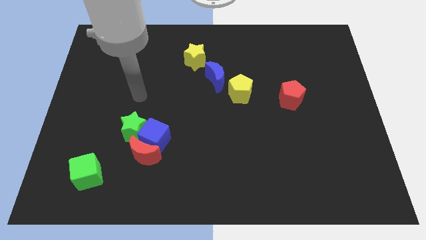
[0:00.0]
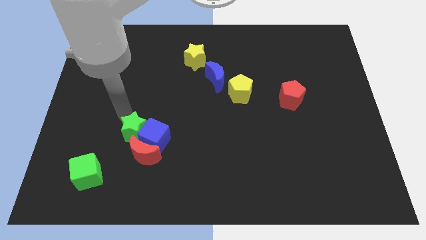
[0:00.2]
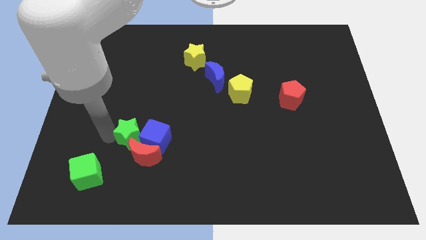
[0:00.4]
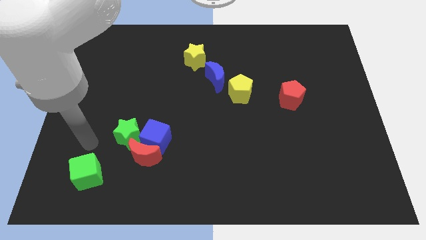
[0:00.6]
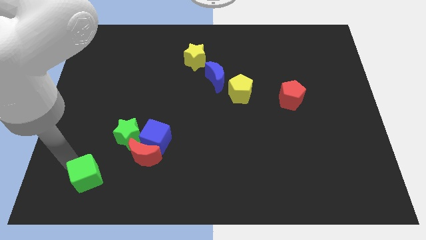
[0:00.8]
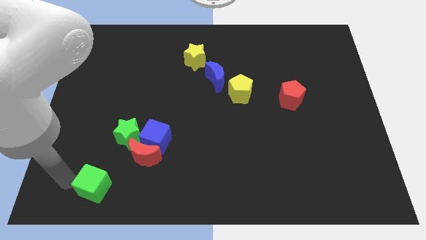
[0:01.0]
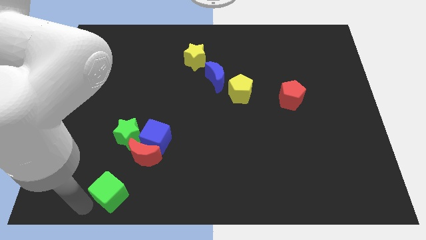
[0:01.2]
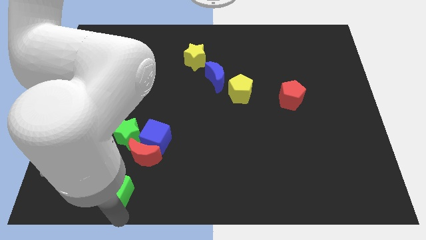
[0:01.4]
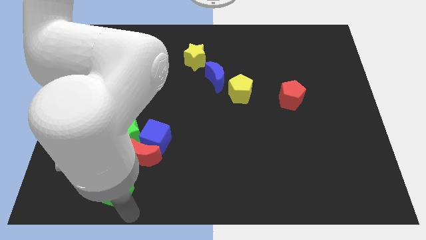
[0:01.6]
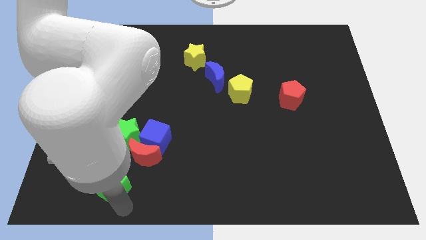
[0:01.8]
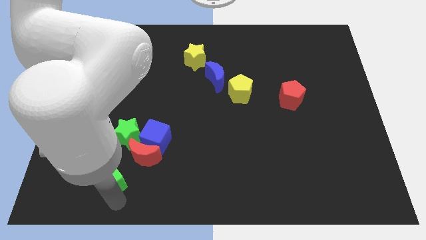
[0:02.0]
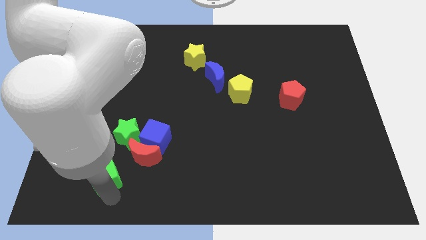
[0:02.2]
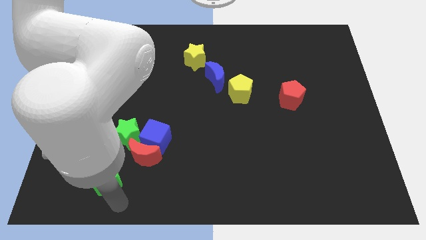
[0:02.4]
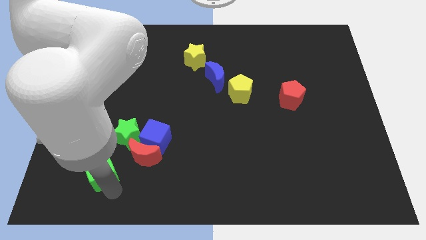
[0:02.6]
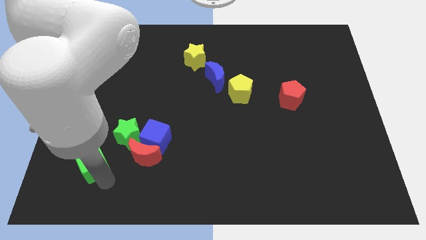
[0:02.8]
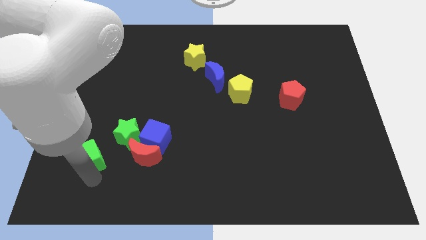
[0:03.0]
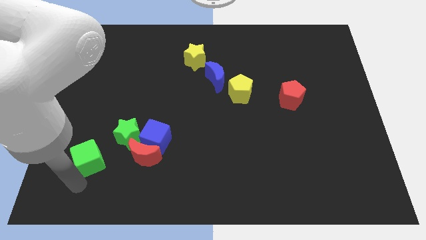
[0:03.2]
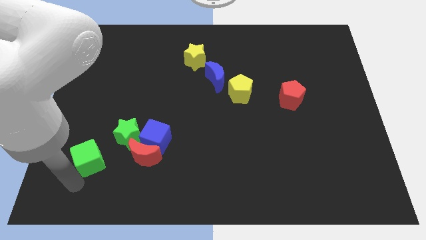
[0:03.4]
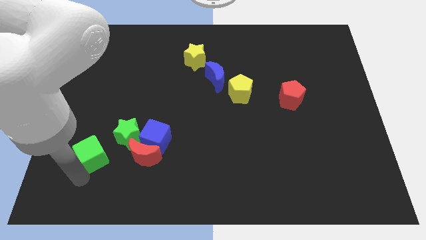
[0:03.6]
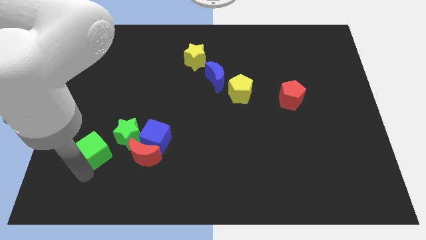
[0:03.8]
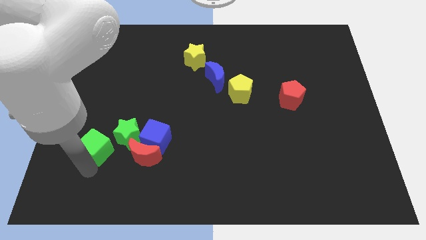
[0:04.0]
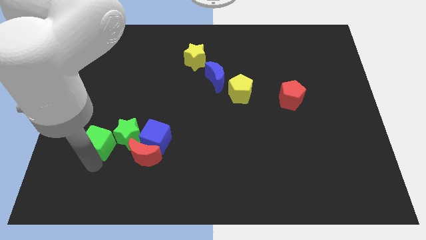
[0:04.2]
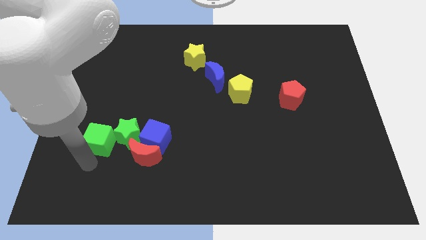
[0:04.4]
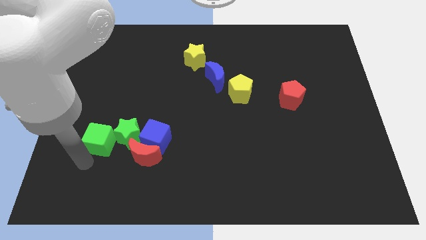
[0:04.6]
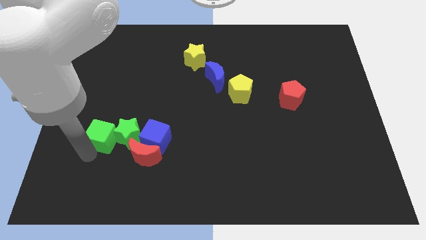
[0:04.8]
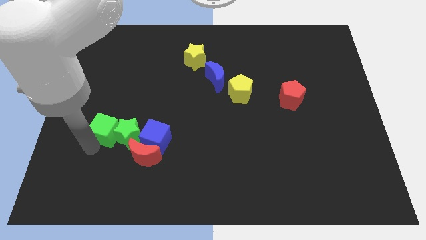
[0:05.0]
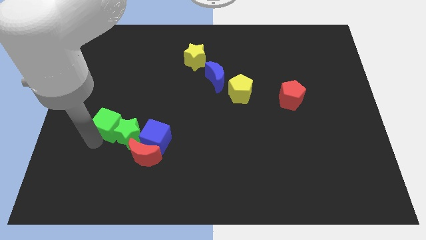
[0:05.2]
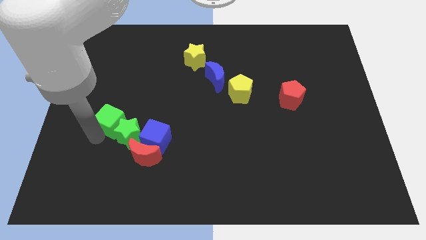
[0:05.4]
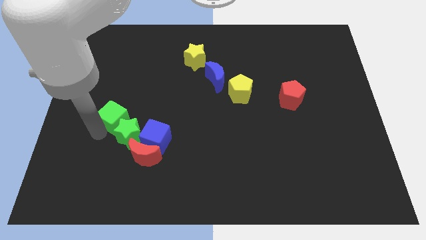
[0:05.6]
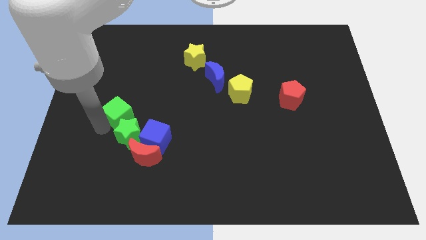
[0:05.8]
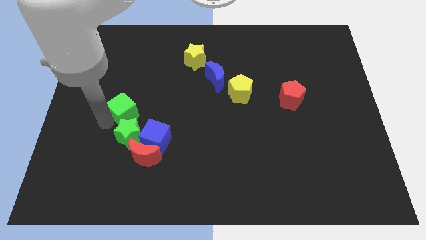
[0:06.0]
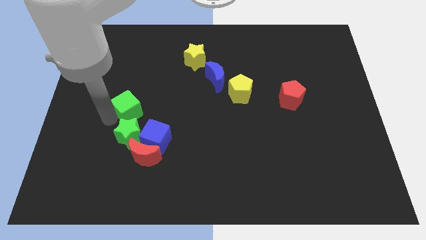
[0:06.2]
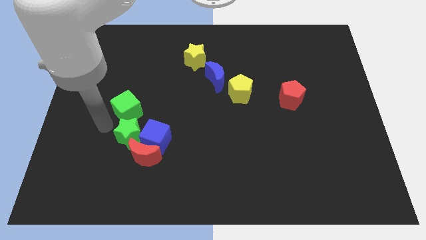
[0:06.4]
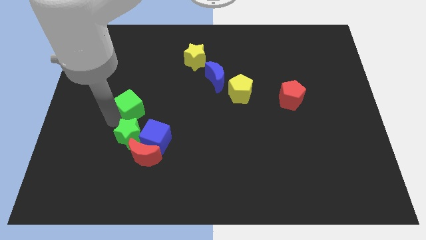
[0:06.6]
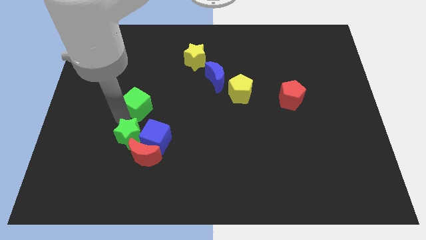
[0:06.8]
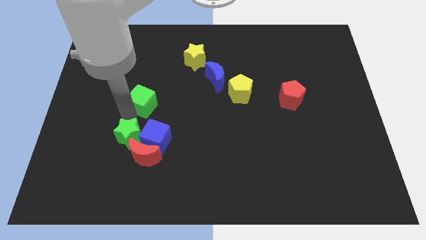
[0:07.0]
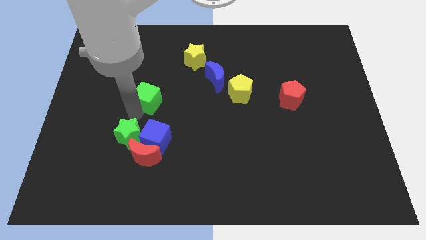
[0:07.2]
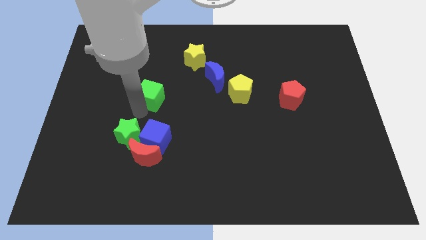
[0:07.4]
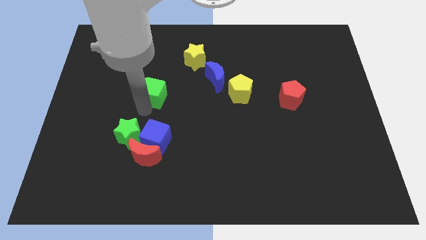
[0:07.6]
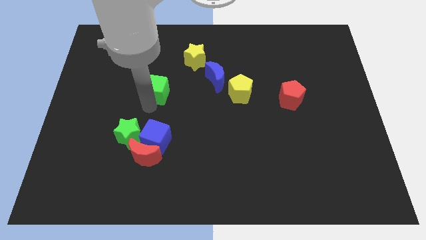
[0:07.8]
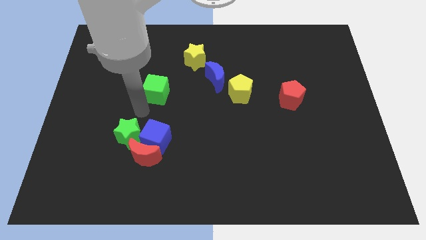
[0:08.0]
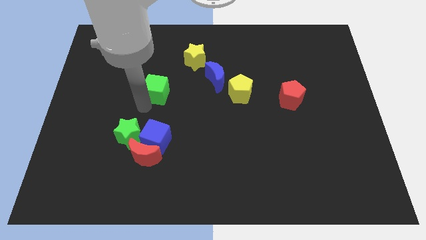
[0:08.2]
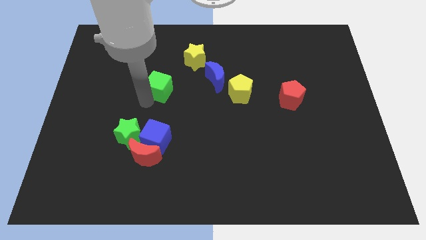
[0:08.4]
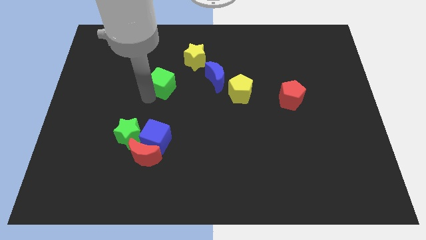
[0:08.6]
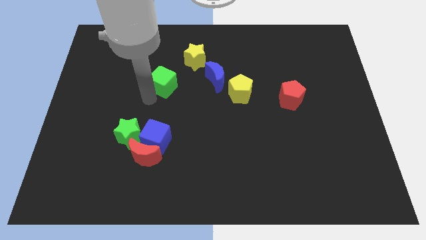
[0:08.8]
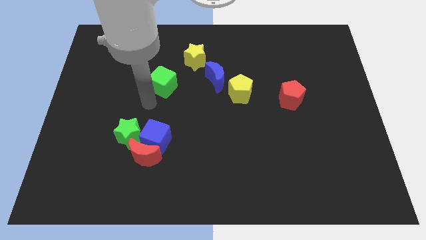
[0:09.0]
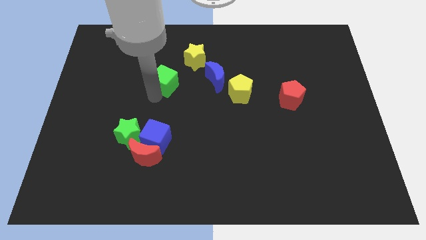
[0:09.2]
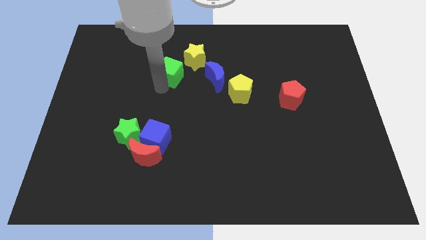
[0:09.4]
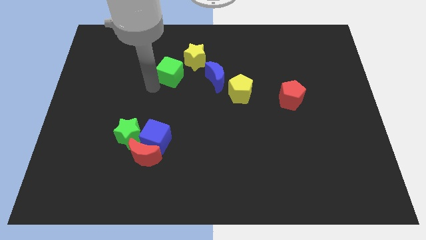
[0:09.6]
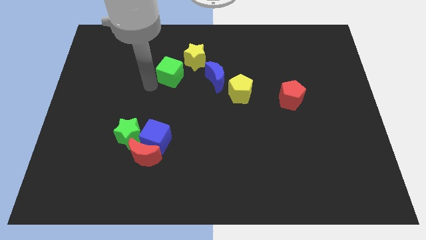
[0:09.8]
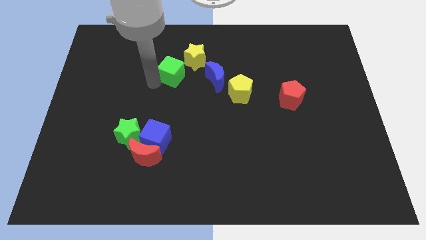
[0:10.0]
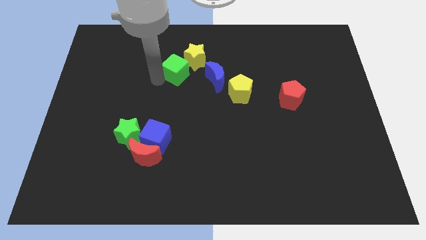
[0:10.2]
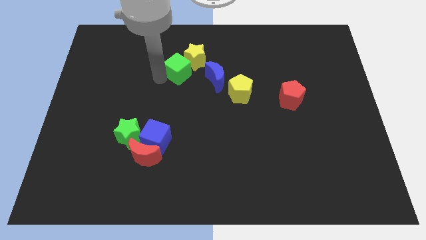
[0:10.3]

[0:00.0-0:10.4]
push the green cube close to the yellow star

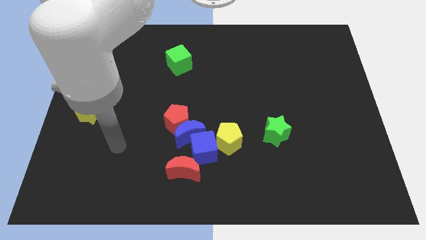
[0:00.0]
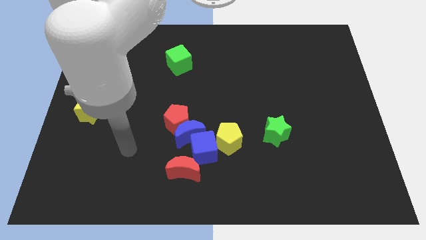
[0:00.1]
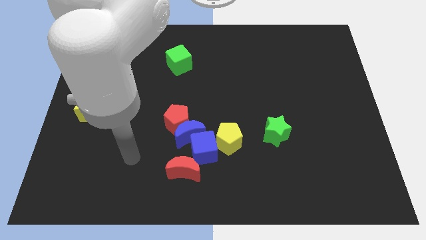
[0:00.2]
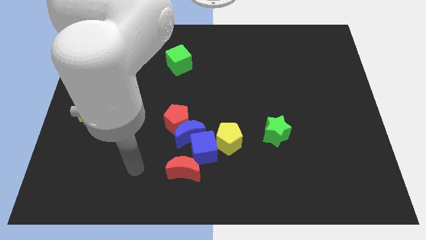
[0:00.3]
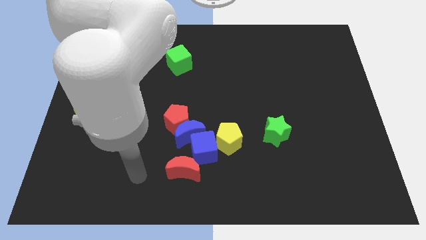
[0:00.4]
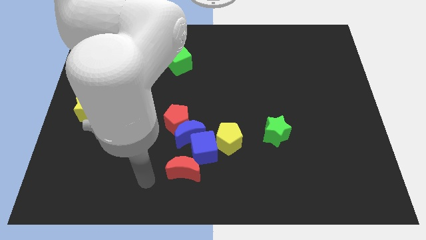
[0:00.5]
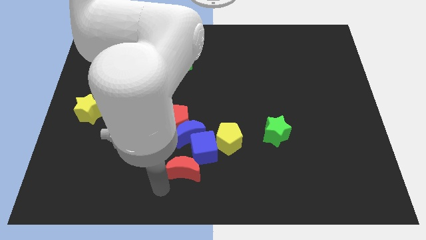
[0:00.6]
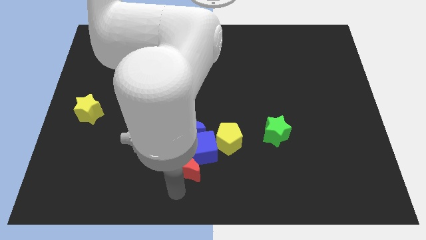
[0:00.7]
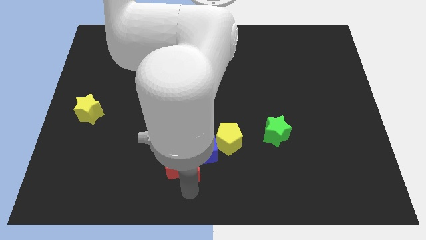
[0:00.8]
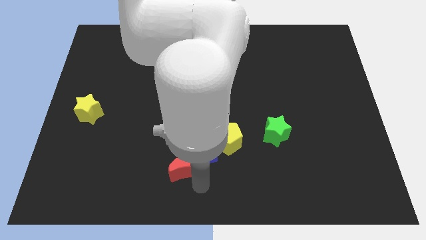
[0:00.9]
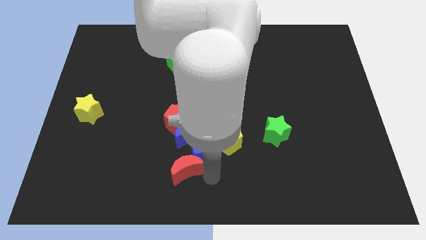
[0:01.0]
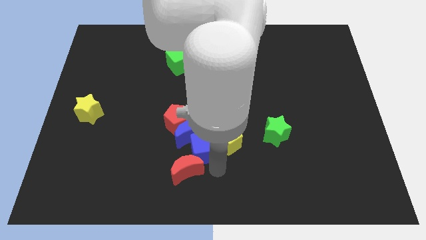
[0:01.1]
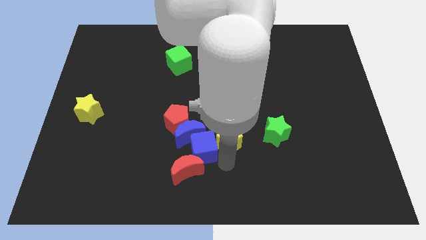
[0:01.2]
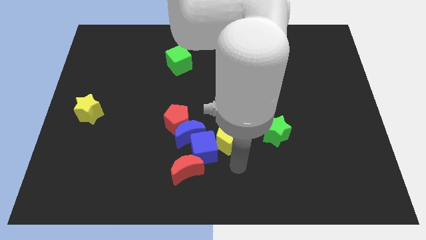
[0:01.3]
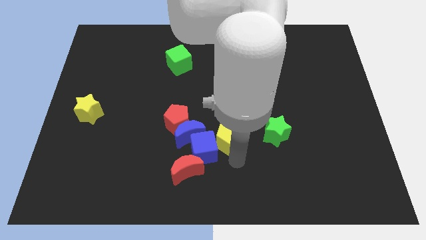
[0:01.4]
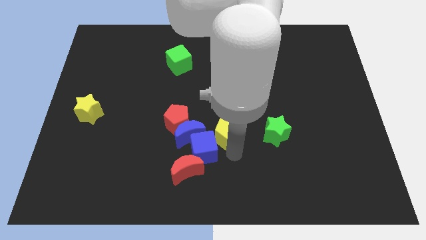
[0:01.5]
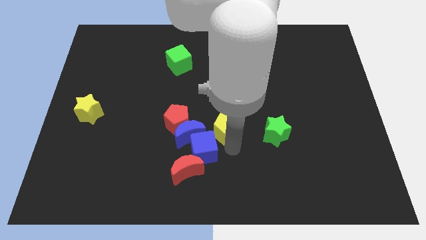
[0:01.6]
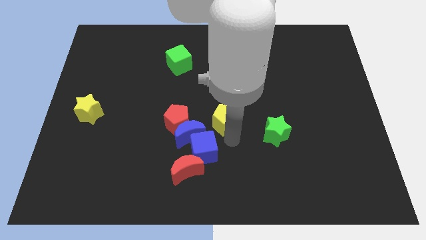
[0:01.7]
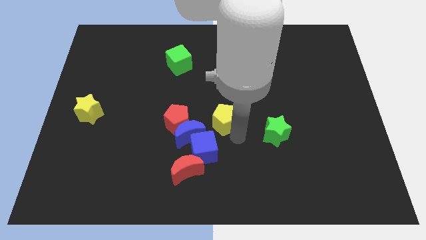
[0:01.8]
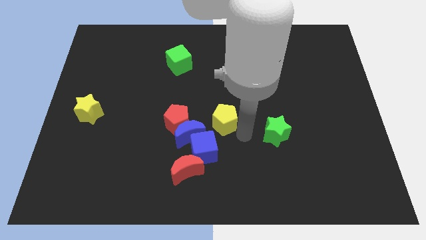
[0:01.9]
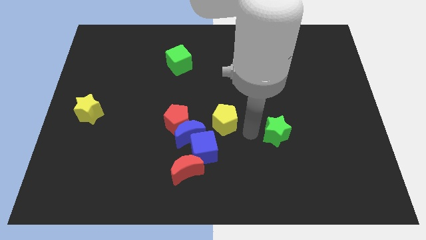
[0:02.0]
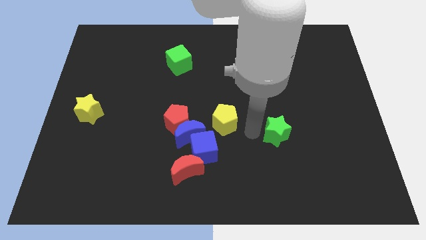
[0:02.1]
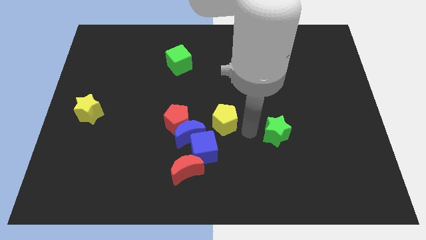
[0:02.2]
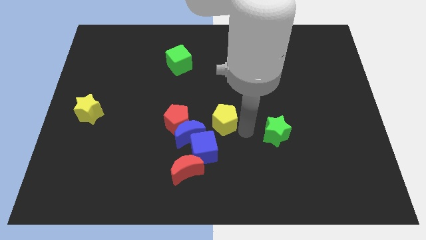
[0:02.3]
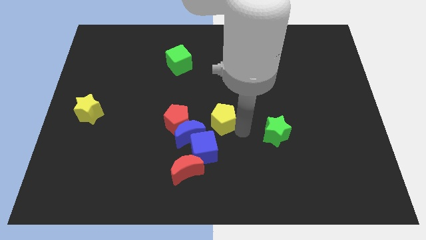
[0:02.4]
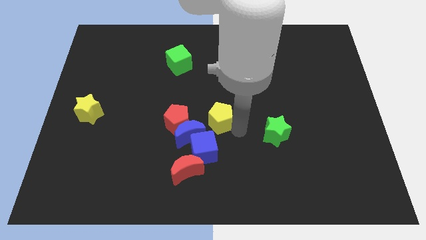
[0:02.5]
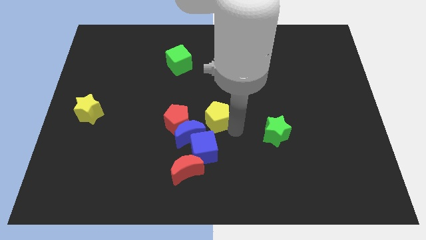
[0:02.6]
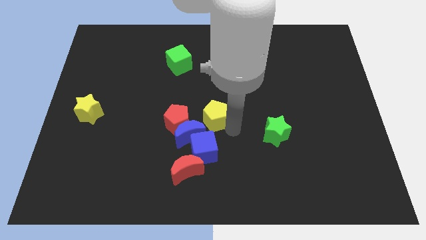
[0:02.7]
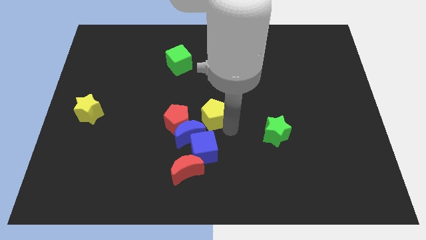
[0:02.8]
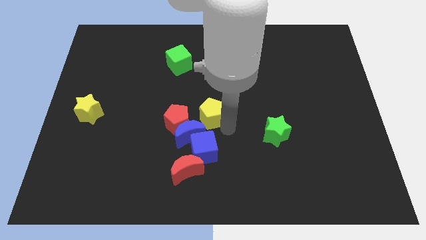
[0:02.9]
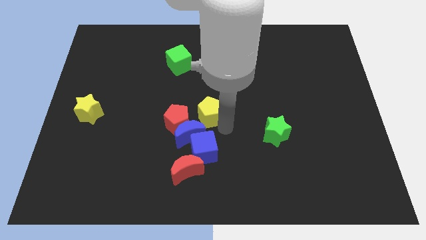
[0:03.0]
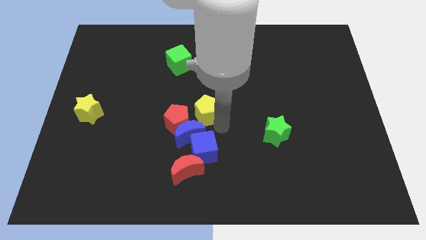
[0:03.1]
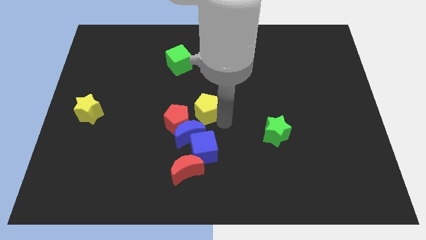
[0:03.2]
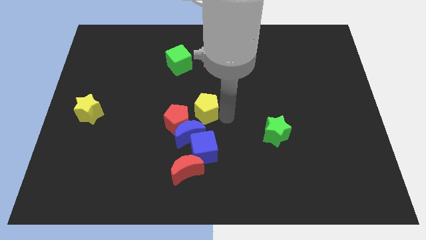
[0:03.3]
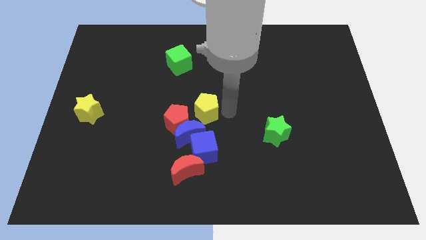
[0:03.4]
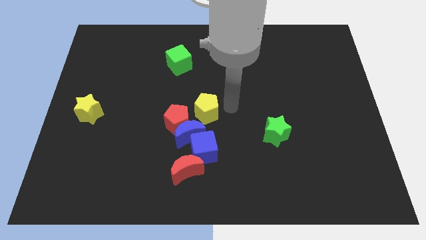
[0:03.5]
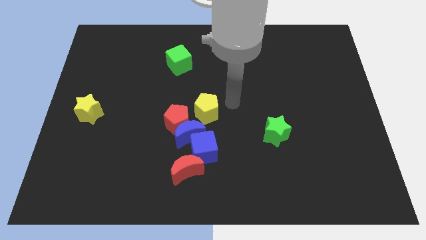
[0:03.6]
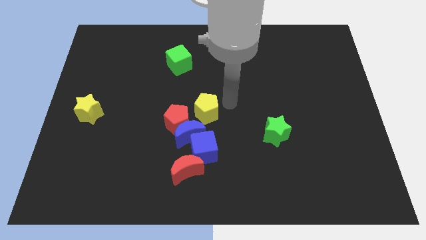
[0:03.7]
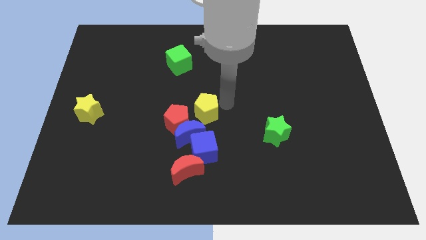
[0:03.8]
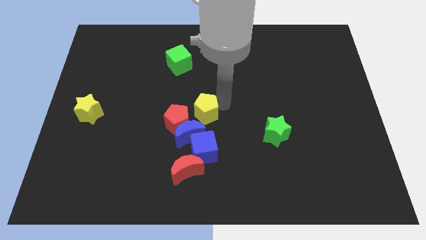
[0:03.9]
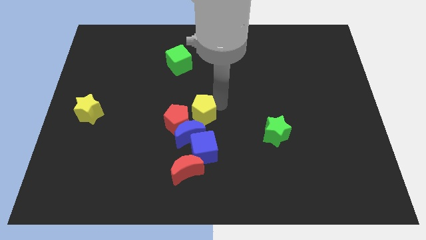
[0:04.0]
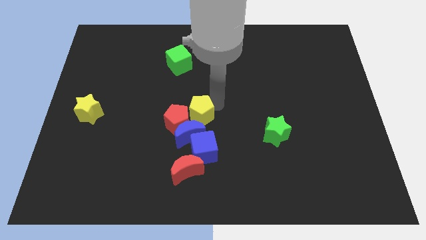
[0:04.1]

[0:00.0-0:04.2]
push the yellow pentagon towards the red pentagon
